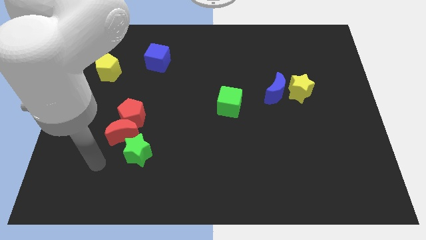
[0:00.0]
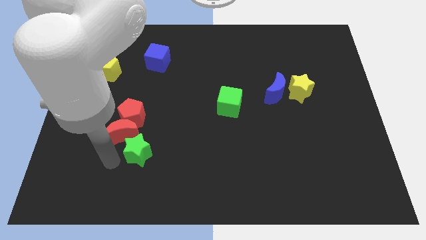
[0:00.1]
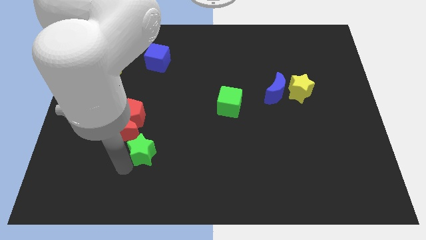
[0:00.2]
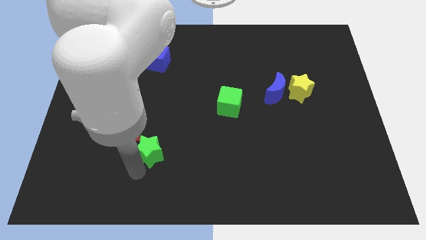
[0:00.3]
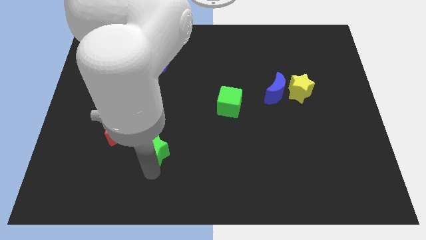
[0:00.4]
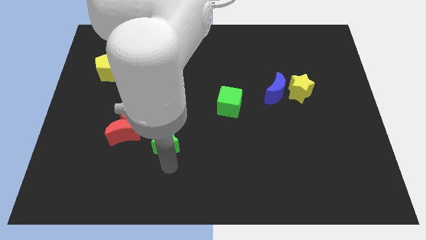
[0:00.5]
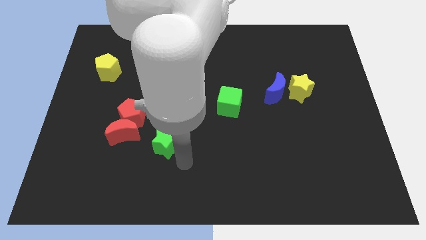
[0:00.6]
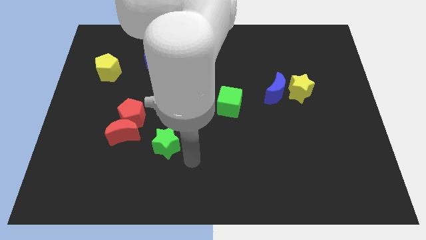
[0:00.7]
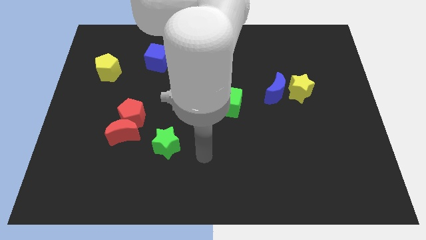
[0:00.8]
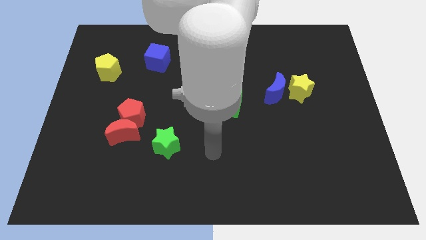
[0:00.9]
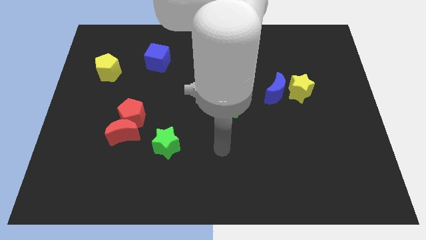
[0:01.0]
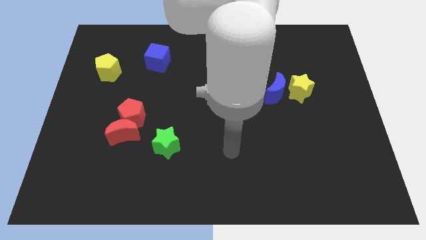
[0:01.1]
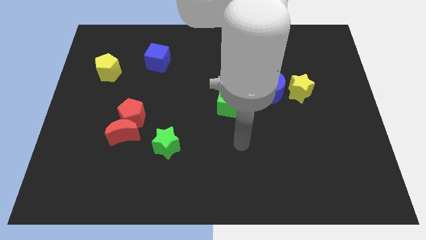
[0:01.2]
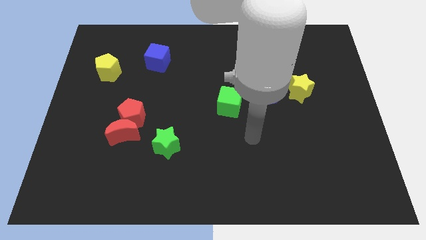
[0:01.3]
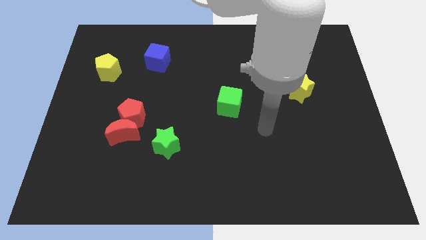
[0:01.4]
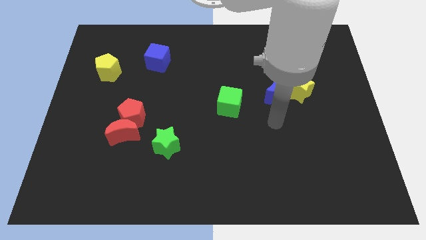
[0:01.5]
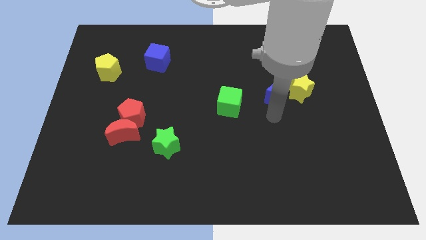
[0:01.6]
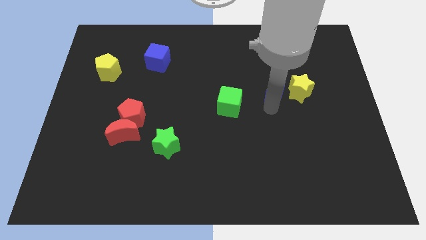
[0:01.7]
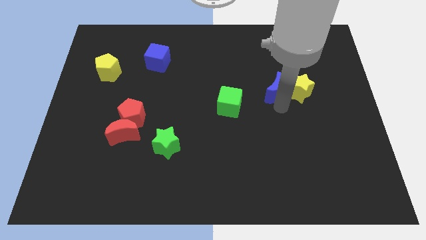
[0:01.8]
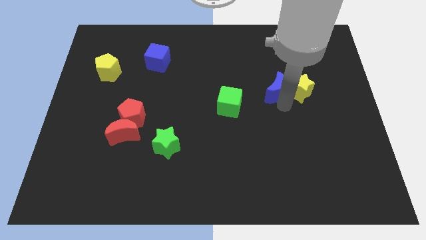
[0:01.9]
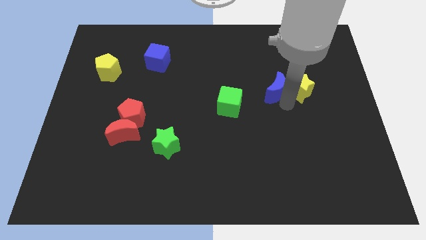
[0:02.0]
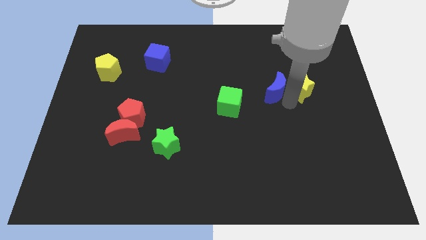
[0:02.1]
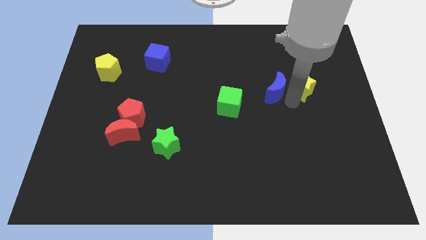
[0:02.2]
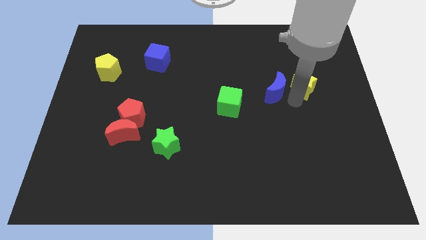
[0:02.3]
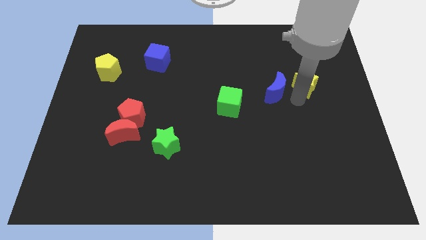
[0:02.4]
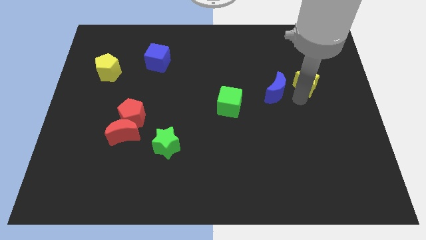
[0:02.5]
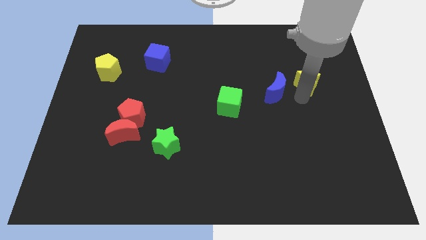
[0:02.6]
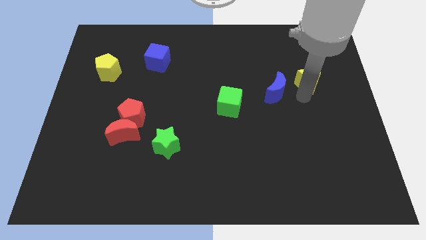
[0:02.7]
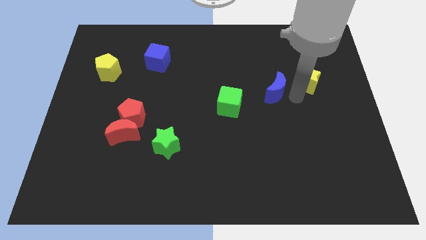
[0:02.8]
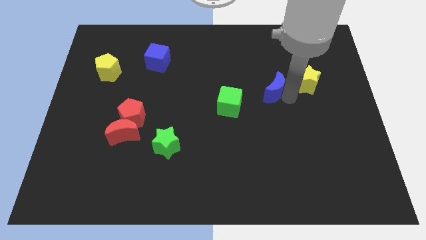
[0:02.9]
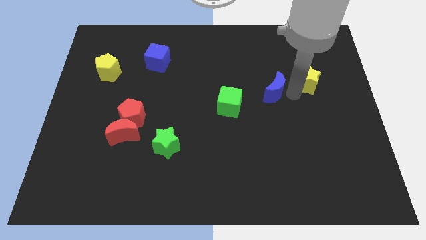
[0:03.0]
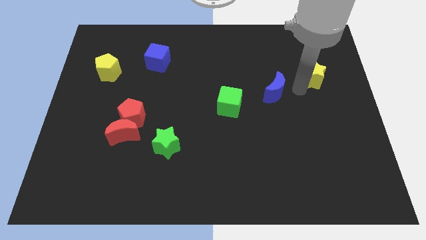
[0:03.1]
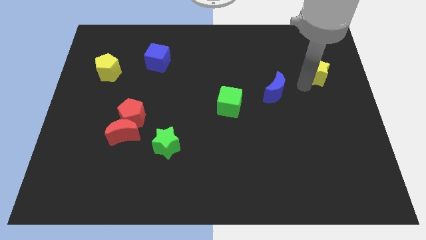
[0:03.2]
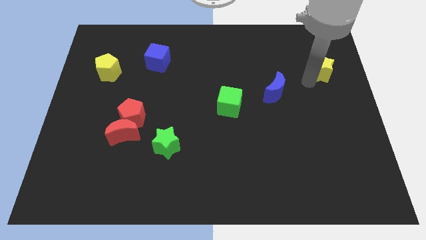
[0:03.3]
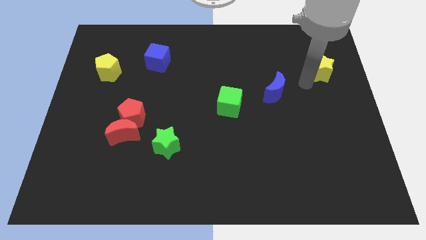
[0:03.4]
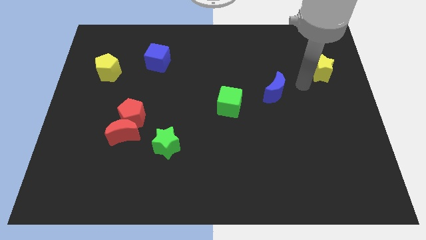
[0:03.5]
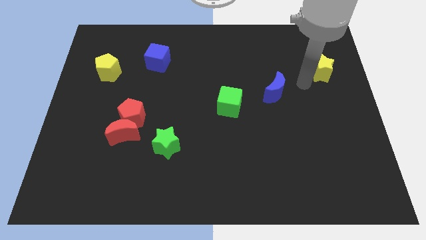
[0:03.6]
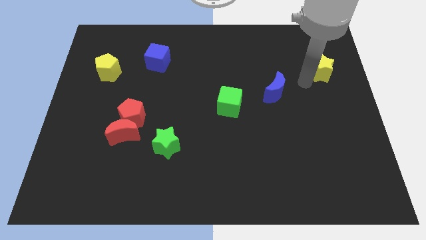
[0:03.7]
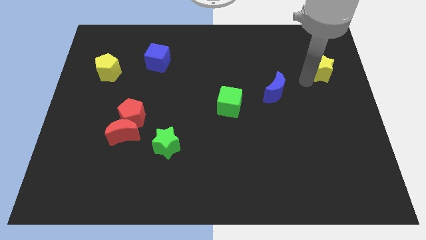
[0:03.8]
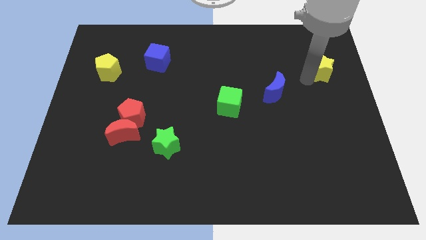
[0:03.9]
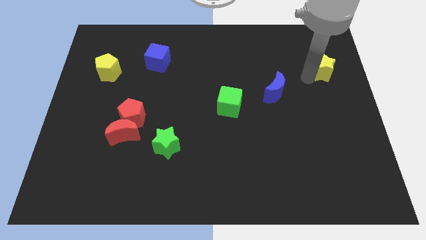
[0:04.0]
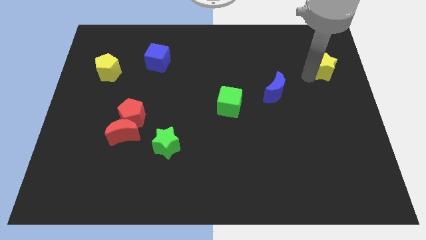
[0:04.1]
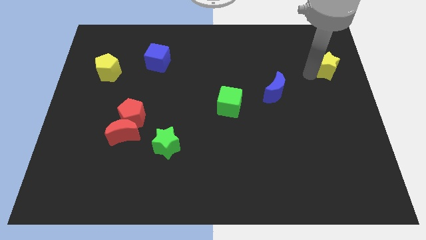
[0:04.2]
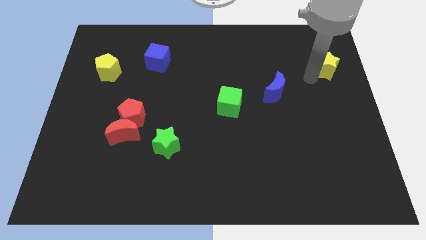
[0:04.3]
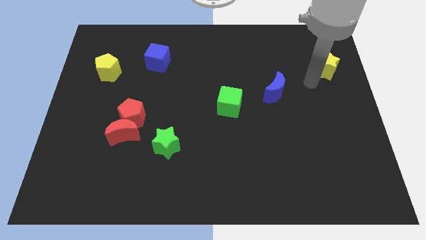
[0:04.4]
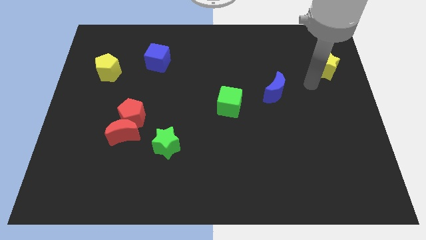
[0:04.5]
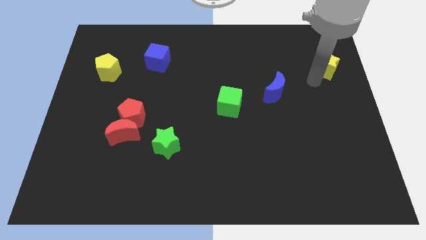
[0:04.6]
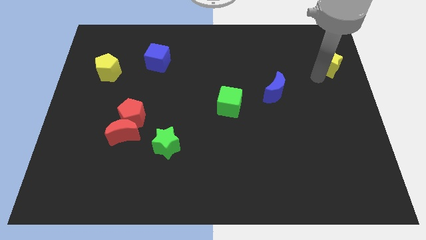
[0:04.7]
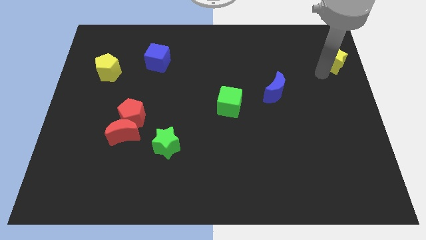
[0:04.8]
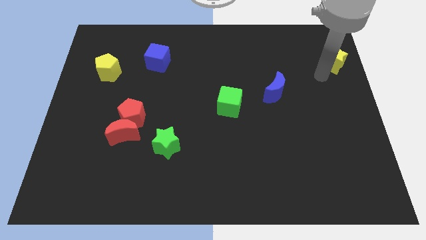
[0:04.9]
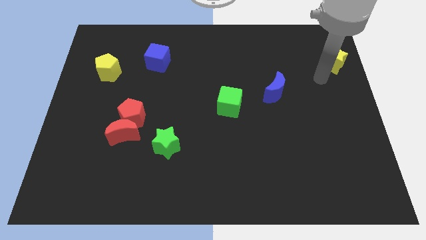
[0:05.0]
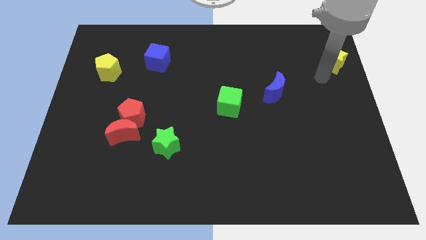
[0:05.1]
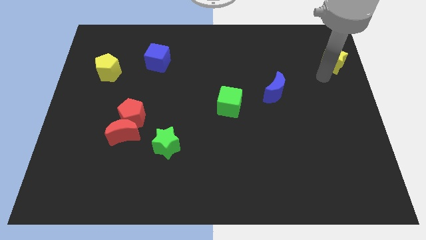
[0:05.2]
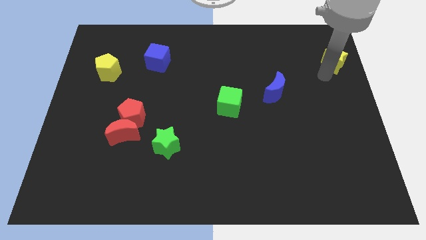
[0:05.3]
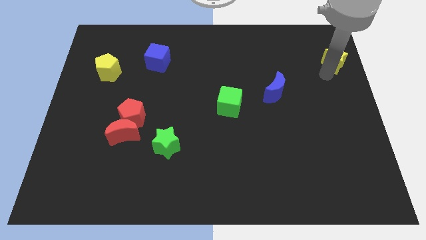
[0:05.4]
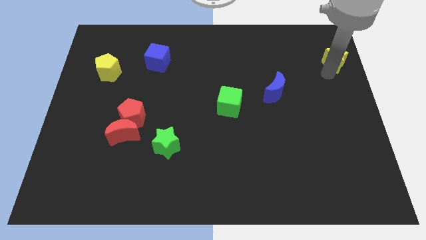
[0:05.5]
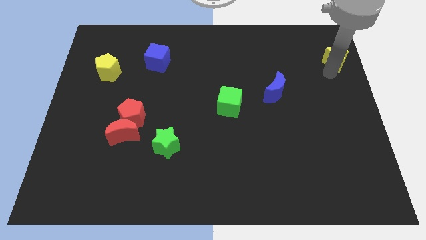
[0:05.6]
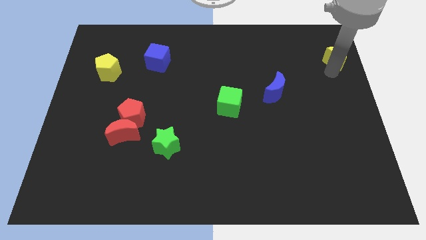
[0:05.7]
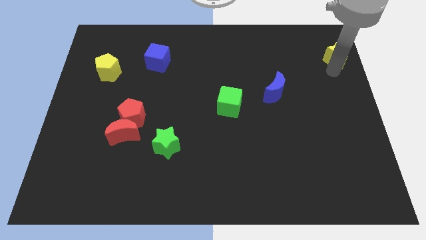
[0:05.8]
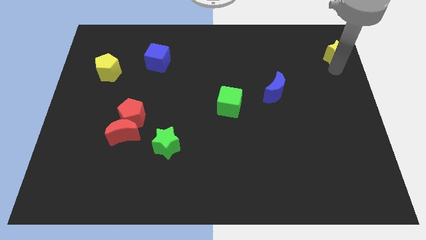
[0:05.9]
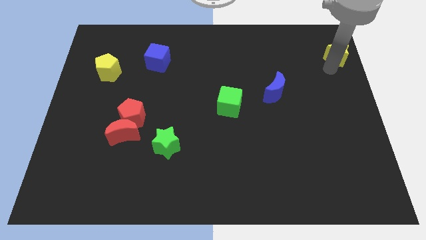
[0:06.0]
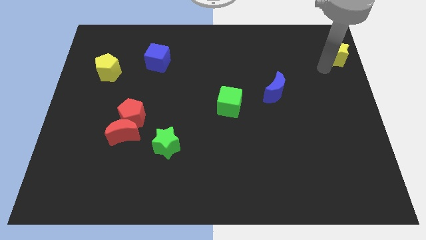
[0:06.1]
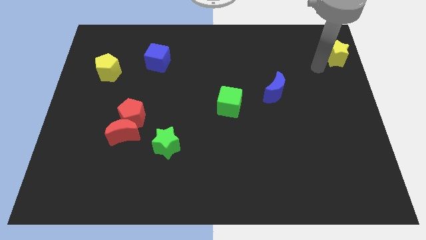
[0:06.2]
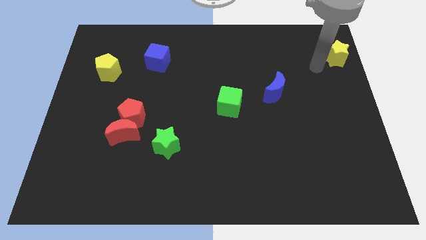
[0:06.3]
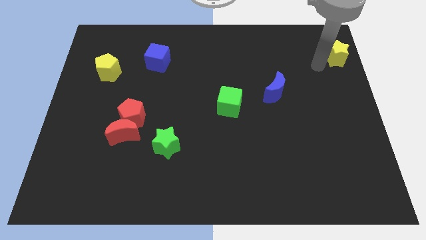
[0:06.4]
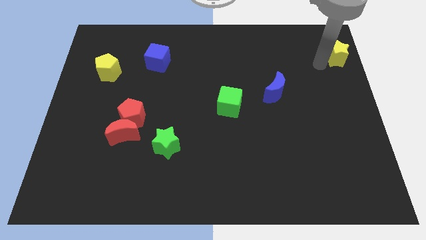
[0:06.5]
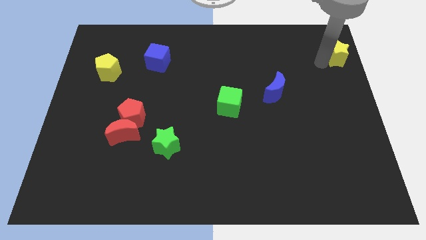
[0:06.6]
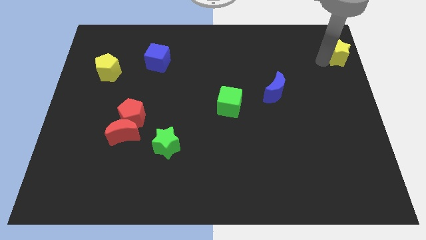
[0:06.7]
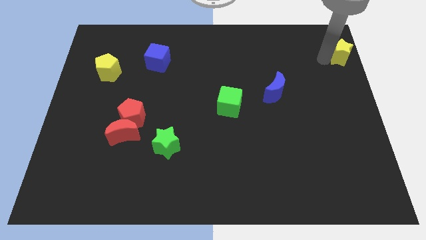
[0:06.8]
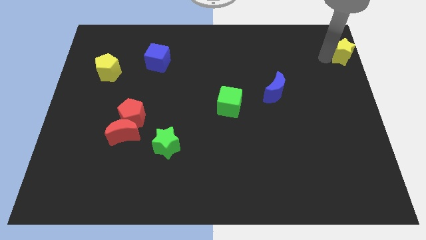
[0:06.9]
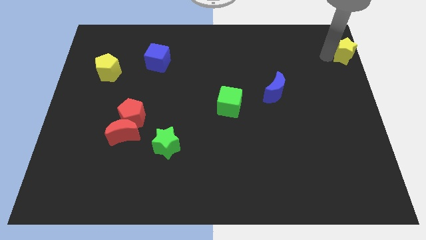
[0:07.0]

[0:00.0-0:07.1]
slide the yellow star to the top right
